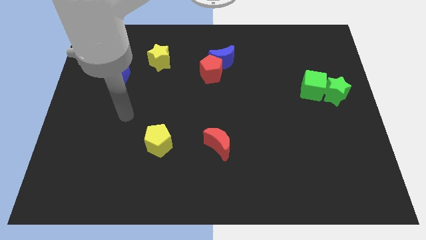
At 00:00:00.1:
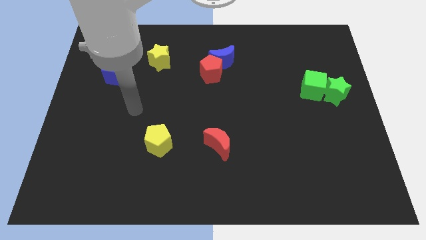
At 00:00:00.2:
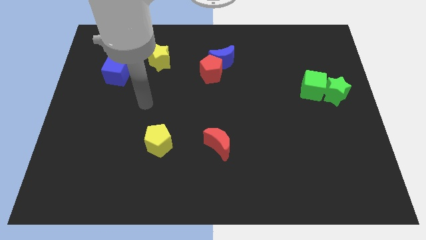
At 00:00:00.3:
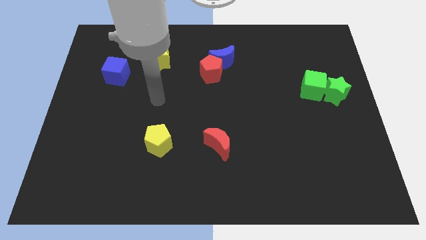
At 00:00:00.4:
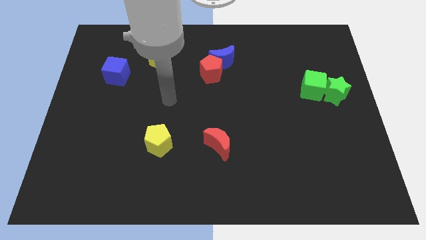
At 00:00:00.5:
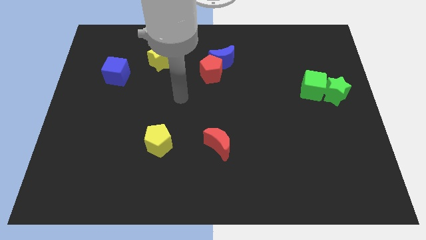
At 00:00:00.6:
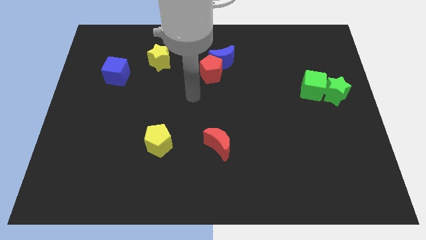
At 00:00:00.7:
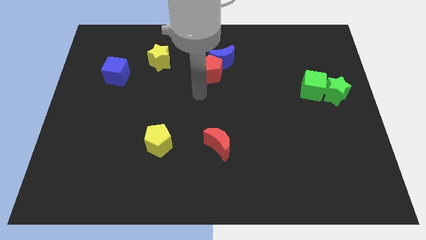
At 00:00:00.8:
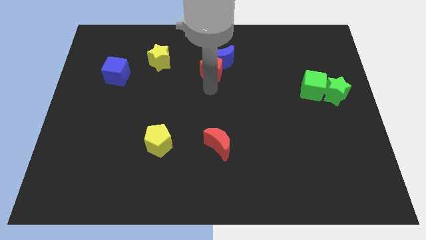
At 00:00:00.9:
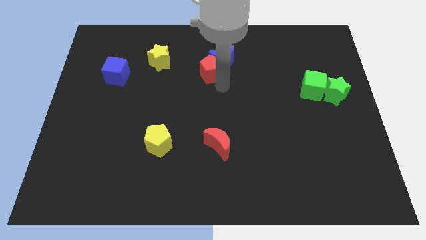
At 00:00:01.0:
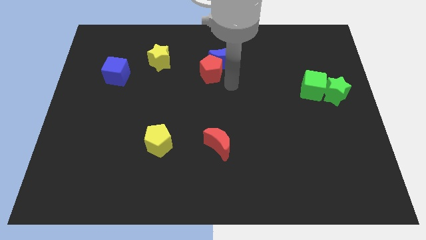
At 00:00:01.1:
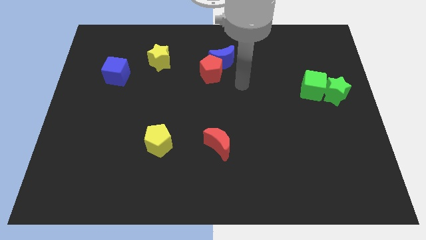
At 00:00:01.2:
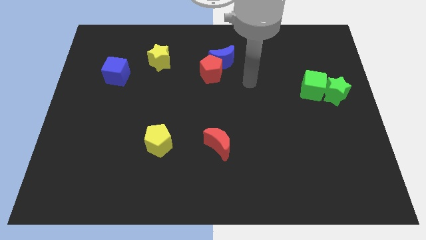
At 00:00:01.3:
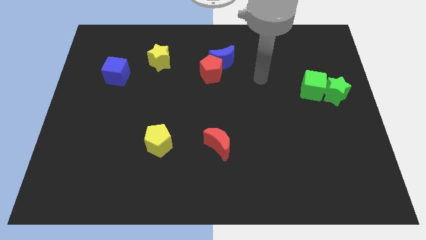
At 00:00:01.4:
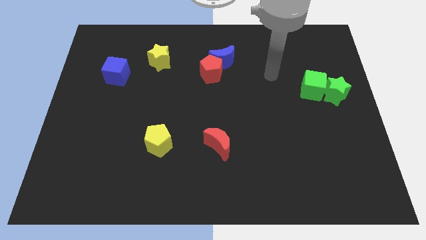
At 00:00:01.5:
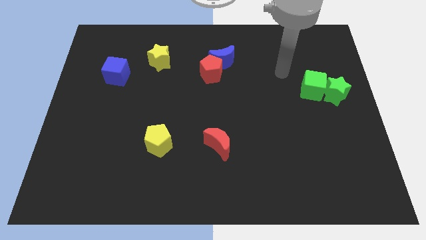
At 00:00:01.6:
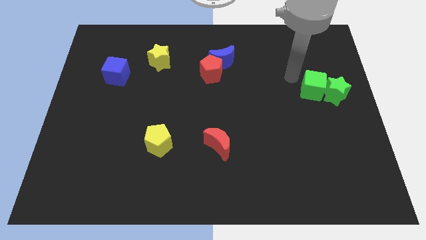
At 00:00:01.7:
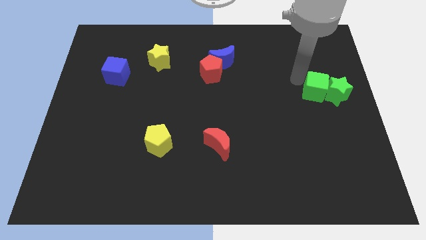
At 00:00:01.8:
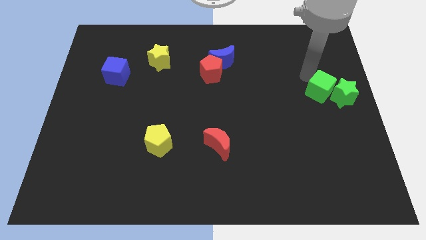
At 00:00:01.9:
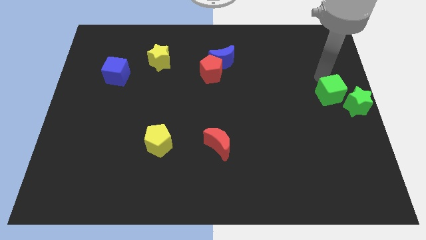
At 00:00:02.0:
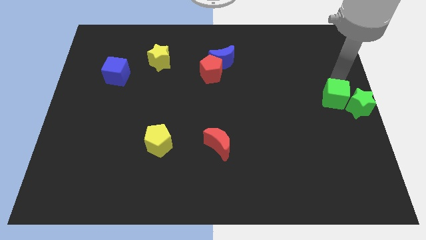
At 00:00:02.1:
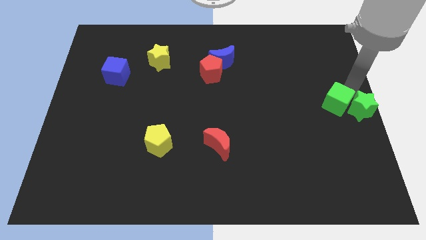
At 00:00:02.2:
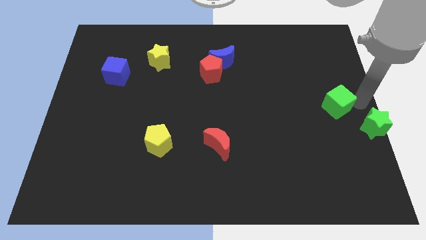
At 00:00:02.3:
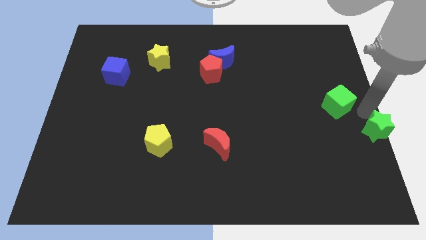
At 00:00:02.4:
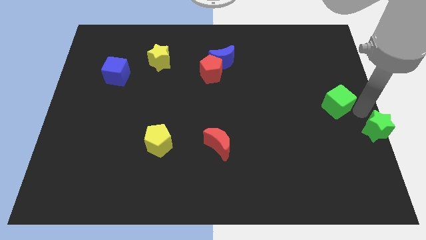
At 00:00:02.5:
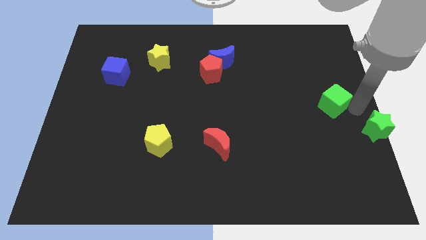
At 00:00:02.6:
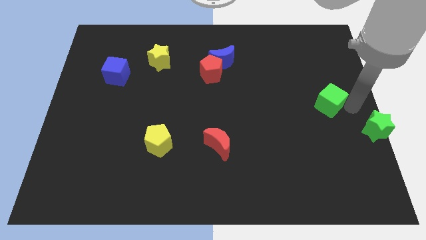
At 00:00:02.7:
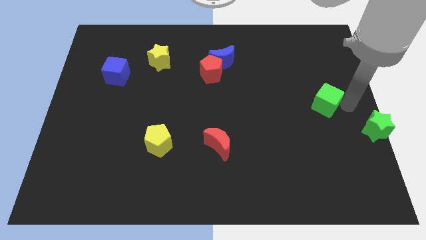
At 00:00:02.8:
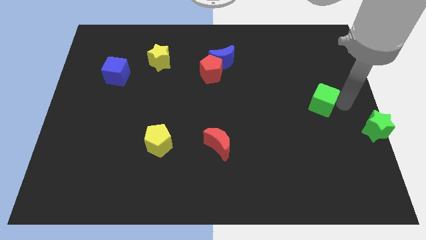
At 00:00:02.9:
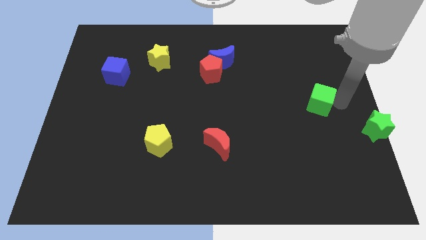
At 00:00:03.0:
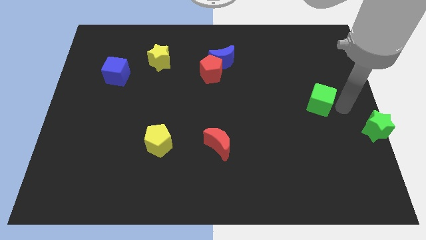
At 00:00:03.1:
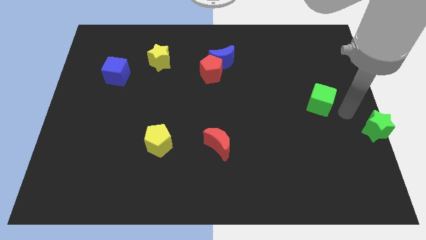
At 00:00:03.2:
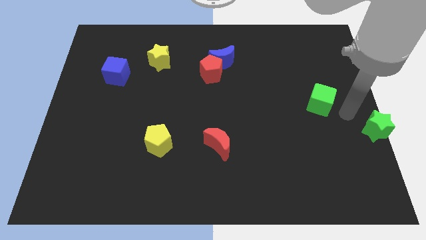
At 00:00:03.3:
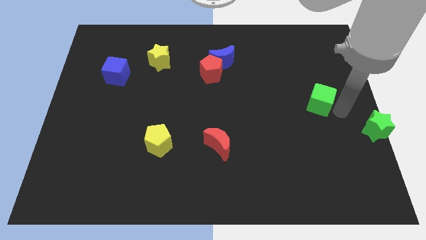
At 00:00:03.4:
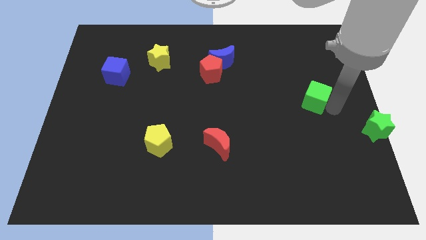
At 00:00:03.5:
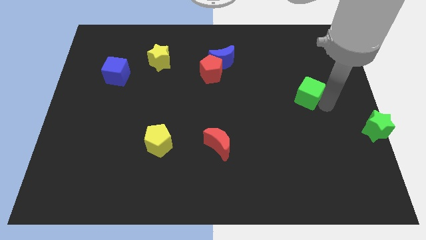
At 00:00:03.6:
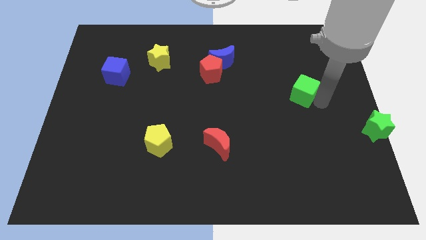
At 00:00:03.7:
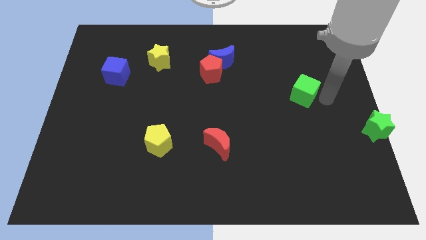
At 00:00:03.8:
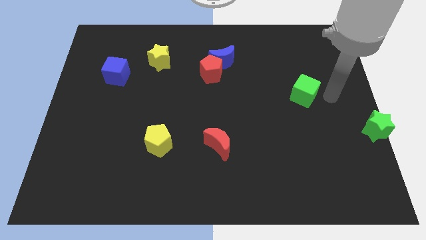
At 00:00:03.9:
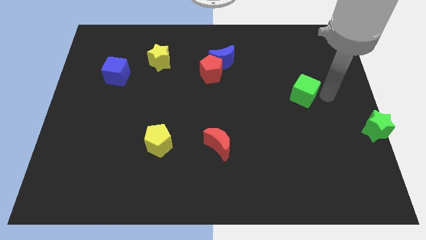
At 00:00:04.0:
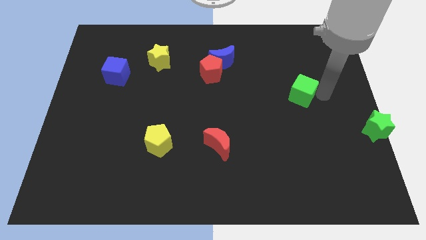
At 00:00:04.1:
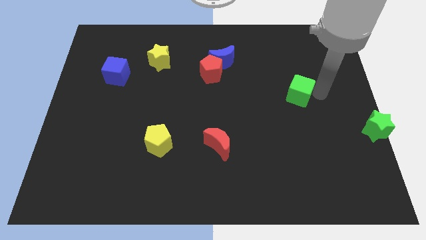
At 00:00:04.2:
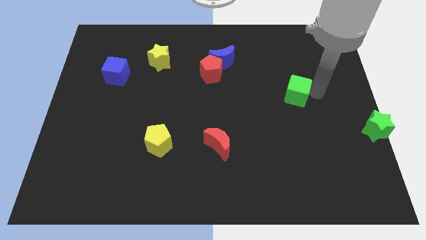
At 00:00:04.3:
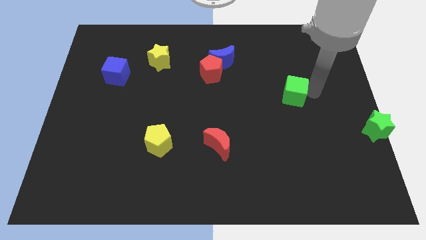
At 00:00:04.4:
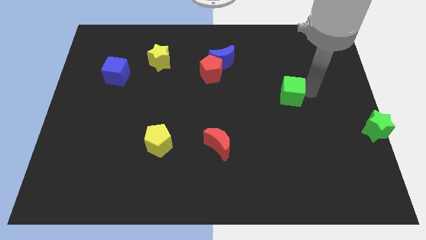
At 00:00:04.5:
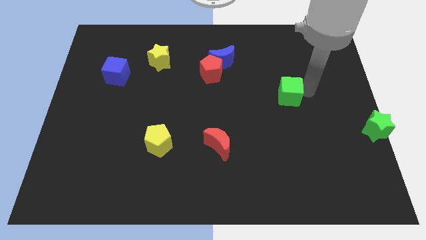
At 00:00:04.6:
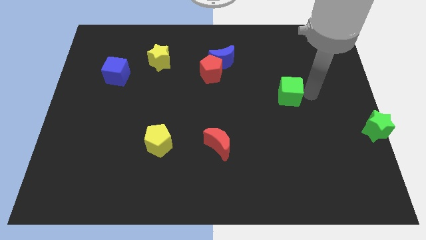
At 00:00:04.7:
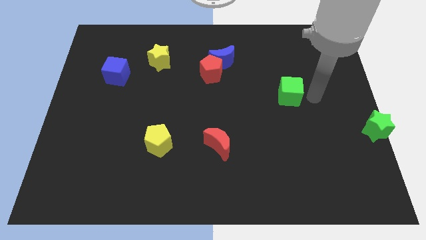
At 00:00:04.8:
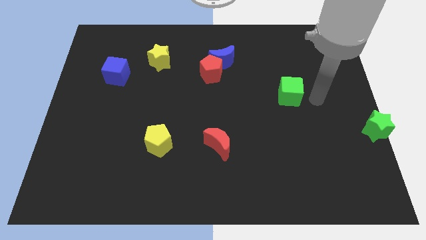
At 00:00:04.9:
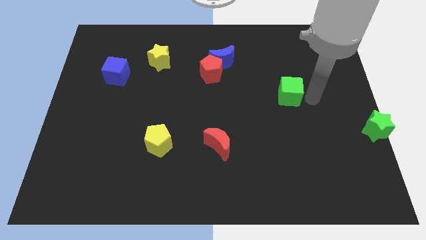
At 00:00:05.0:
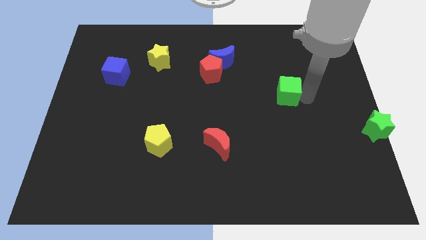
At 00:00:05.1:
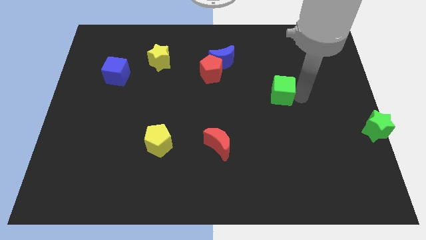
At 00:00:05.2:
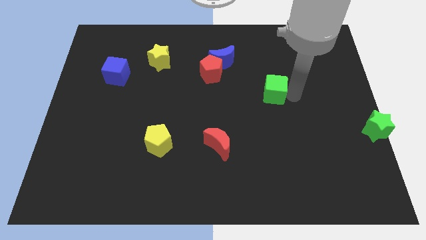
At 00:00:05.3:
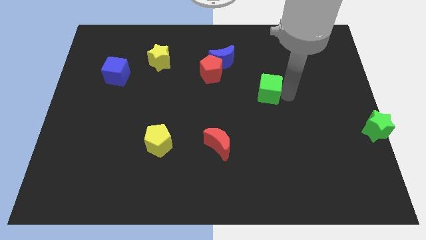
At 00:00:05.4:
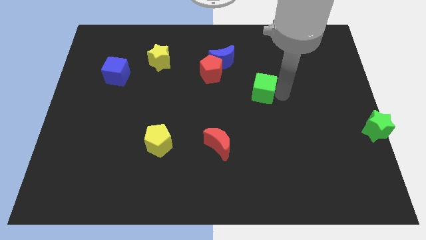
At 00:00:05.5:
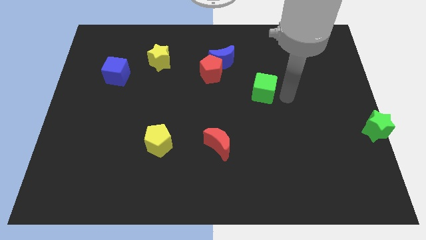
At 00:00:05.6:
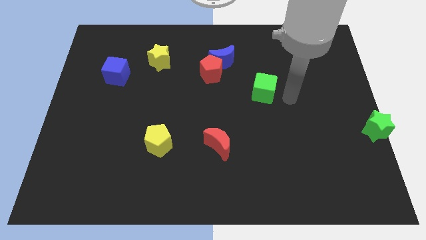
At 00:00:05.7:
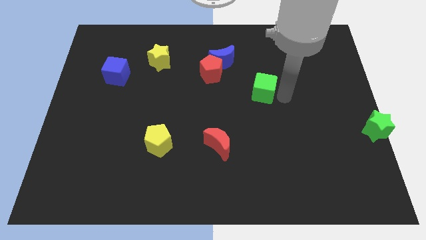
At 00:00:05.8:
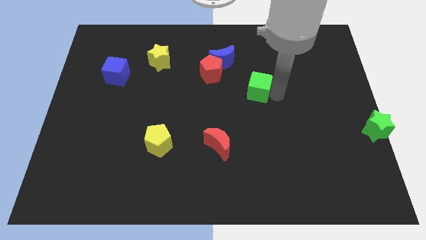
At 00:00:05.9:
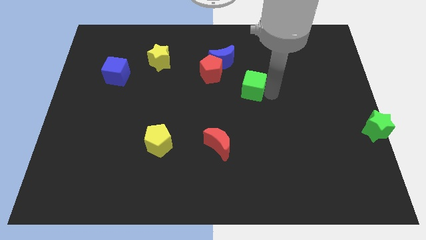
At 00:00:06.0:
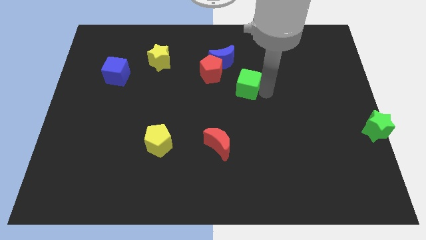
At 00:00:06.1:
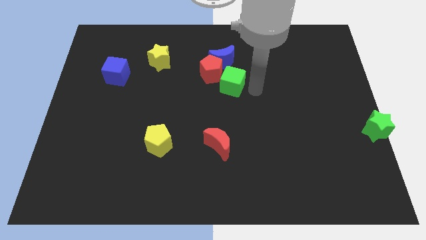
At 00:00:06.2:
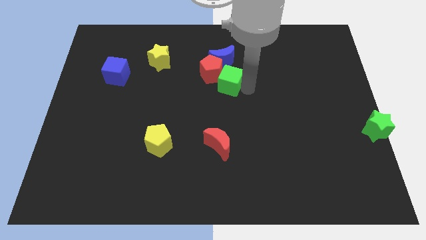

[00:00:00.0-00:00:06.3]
move the green cube towards the red pentagon
